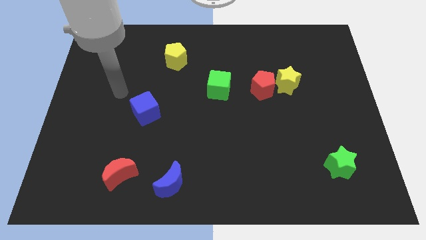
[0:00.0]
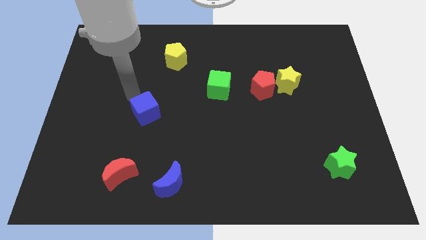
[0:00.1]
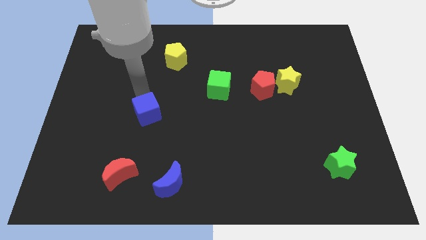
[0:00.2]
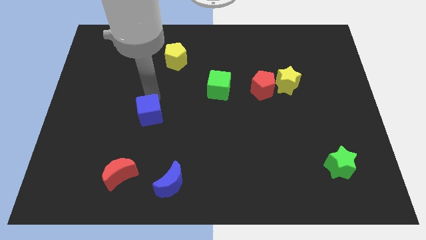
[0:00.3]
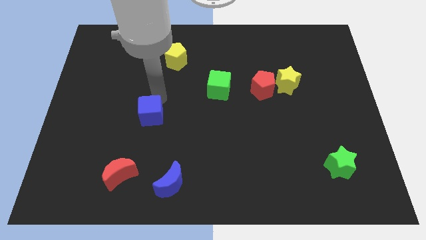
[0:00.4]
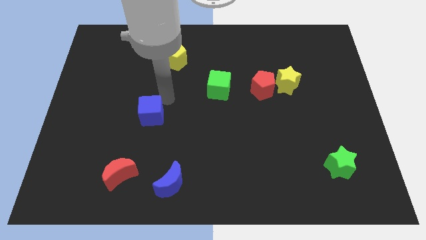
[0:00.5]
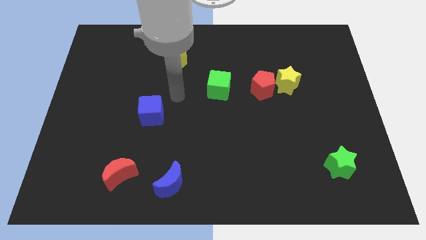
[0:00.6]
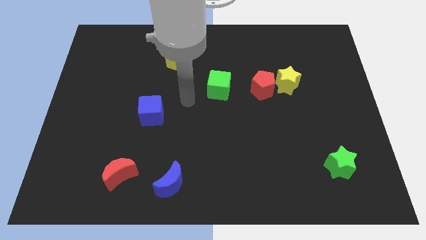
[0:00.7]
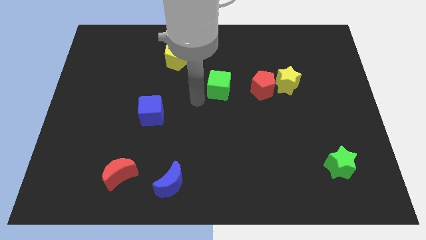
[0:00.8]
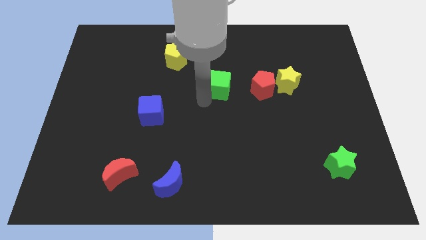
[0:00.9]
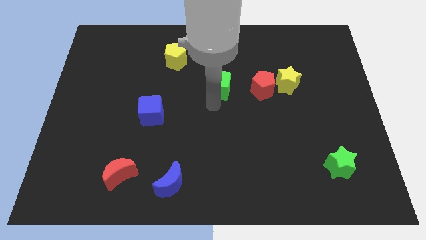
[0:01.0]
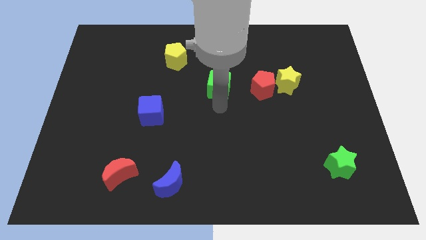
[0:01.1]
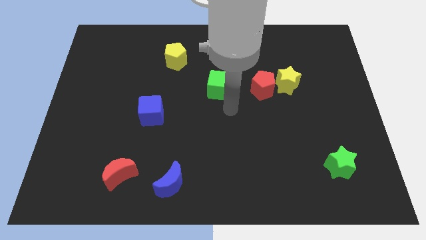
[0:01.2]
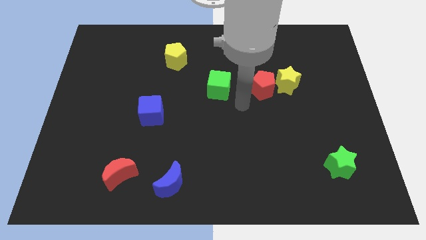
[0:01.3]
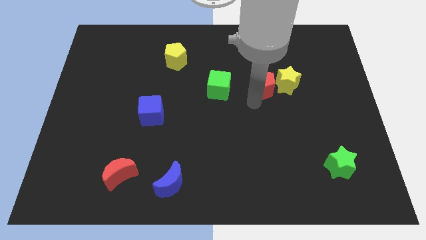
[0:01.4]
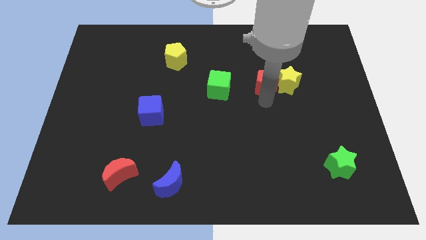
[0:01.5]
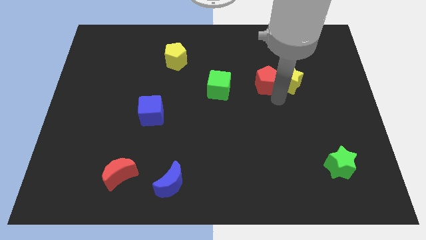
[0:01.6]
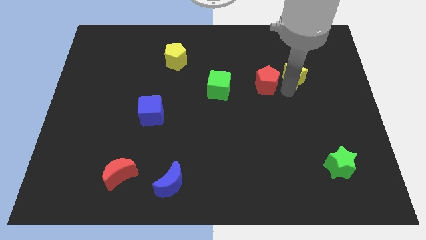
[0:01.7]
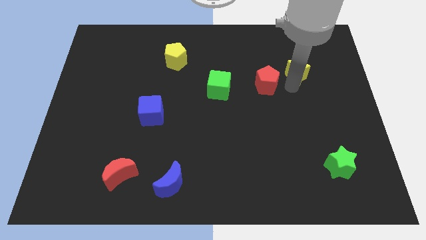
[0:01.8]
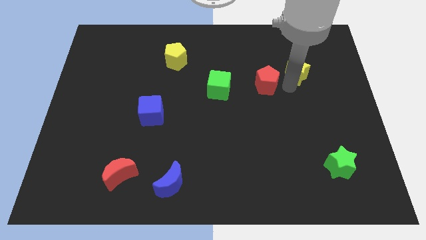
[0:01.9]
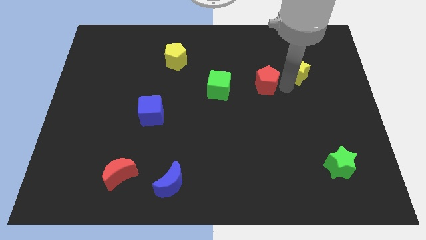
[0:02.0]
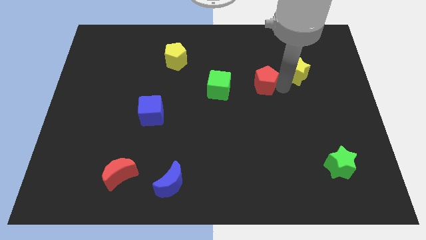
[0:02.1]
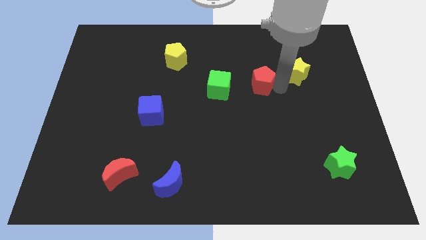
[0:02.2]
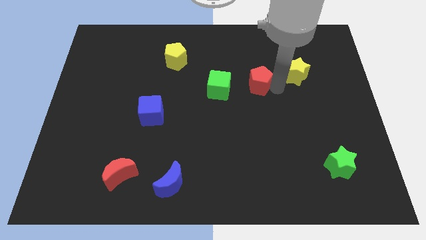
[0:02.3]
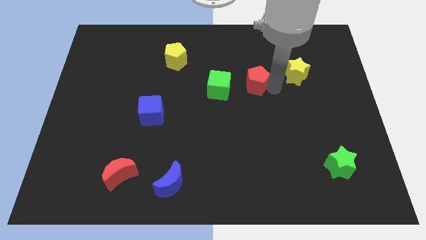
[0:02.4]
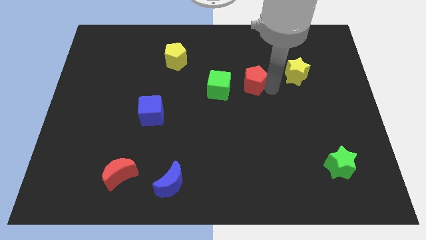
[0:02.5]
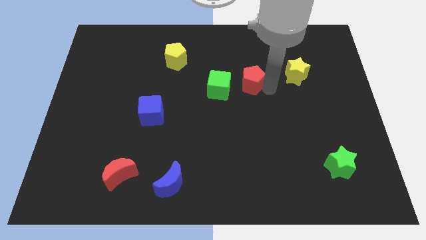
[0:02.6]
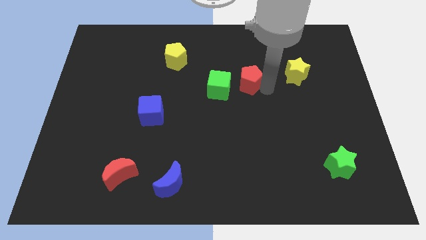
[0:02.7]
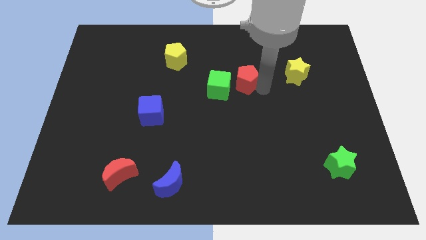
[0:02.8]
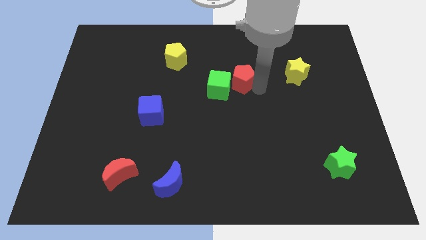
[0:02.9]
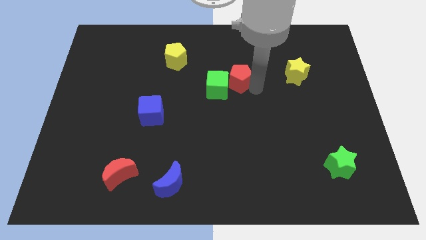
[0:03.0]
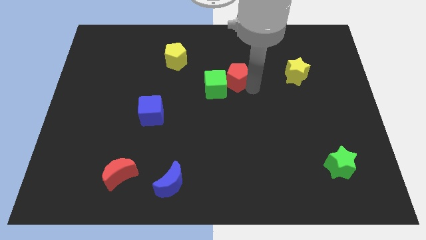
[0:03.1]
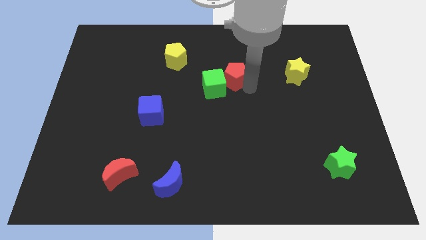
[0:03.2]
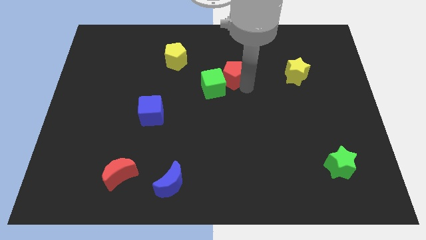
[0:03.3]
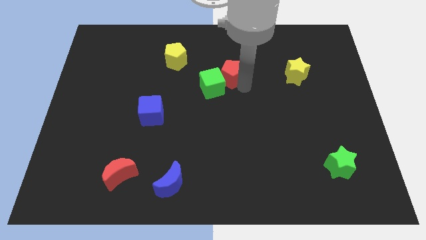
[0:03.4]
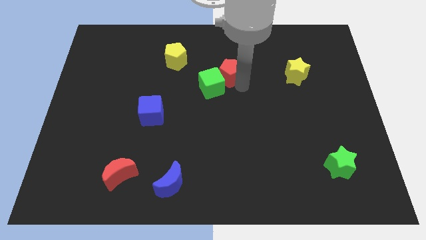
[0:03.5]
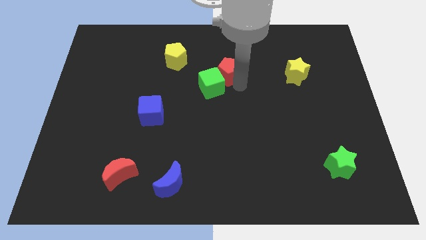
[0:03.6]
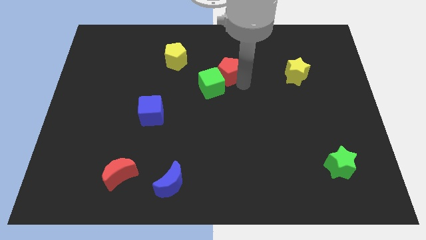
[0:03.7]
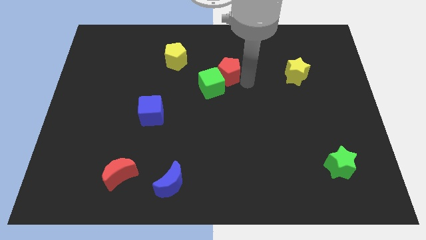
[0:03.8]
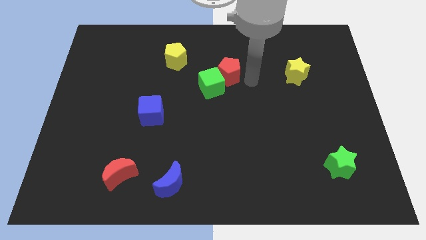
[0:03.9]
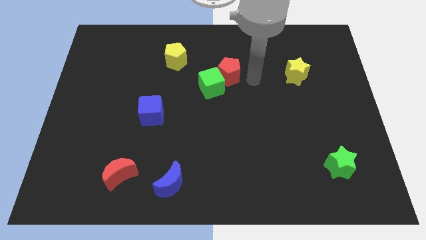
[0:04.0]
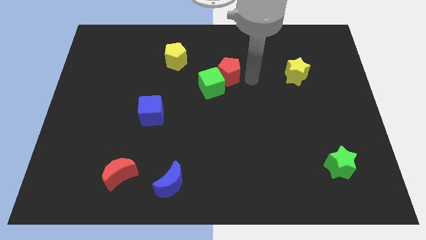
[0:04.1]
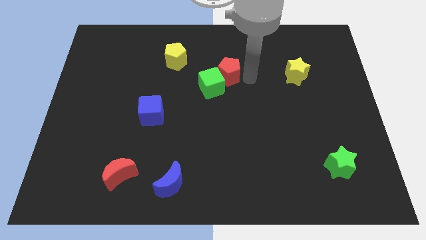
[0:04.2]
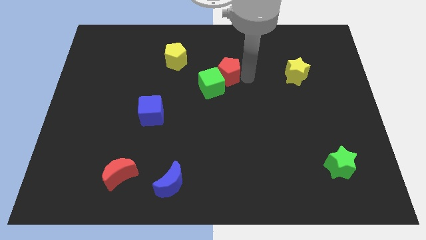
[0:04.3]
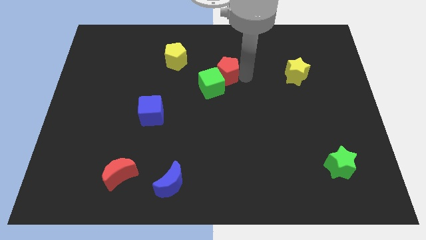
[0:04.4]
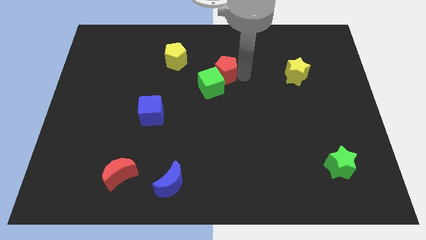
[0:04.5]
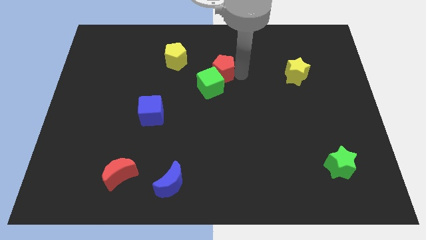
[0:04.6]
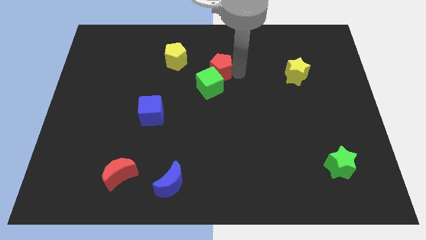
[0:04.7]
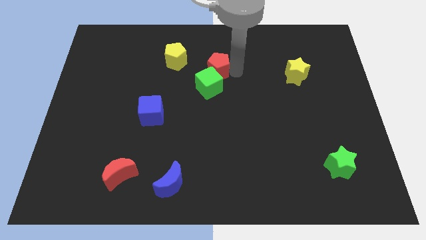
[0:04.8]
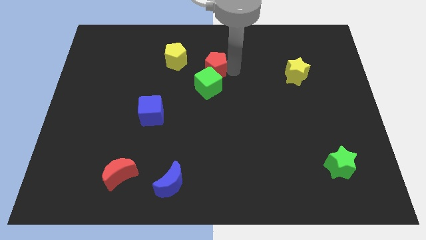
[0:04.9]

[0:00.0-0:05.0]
move the red pentagon to the bottom right of the yellow pentagon

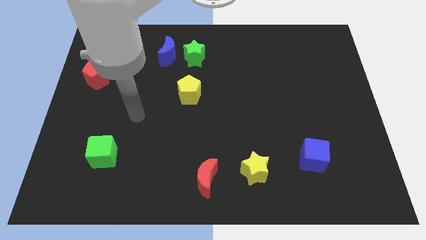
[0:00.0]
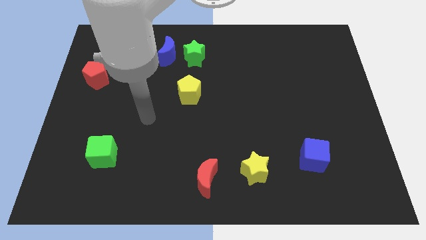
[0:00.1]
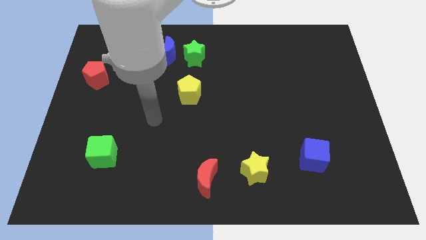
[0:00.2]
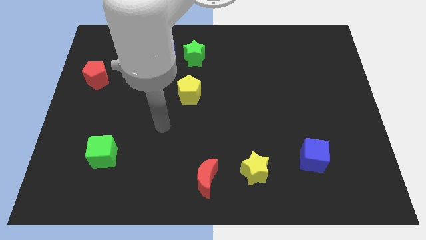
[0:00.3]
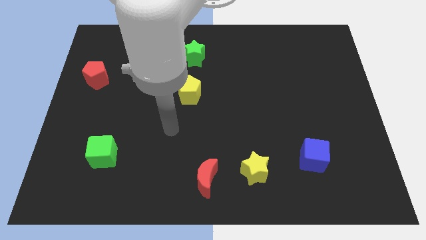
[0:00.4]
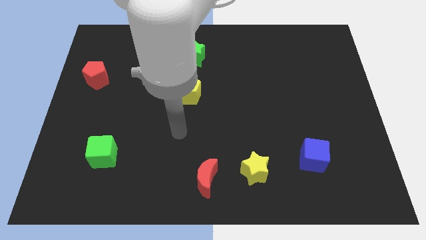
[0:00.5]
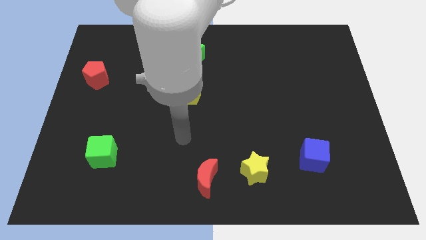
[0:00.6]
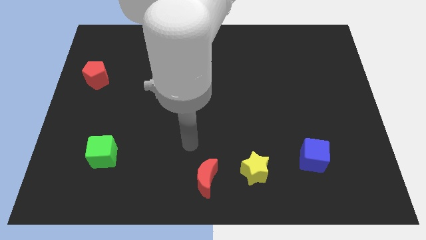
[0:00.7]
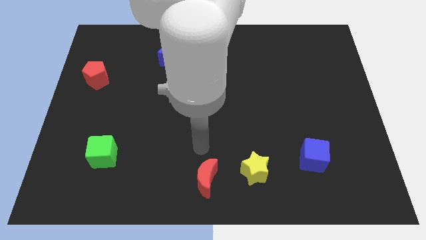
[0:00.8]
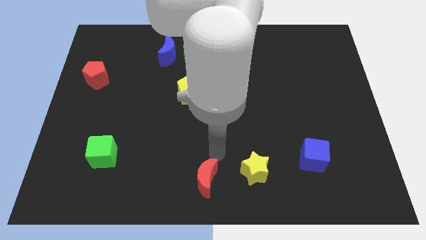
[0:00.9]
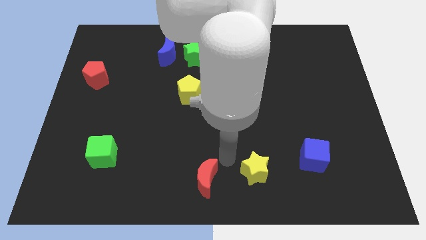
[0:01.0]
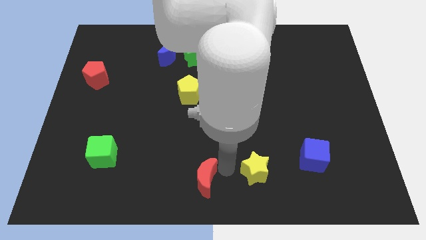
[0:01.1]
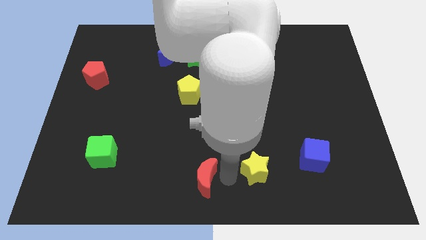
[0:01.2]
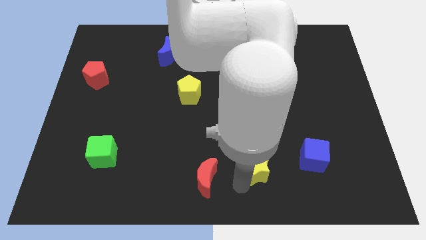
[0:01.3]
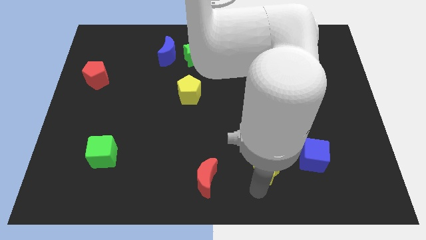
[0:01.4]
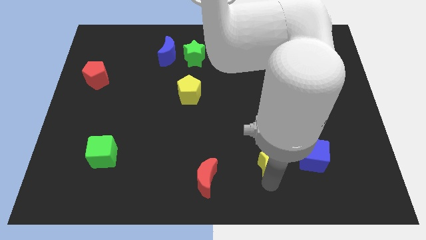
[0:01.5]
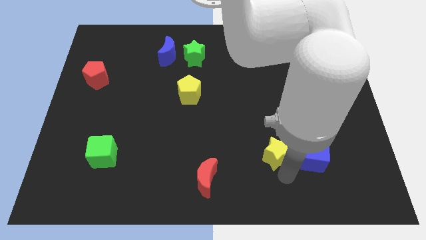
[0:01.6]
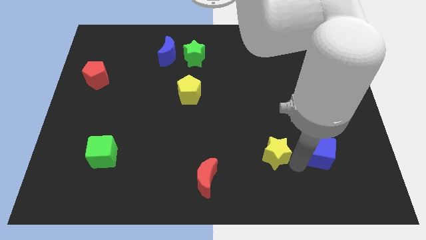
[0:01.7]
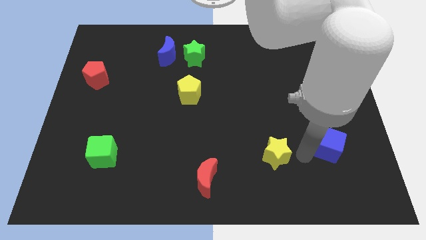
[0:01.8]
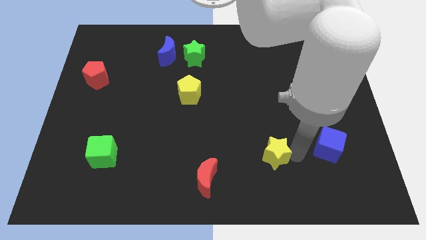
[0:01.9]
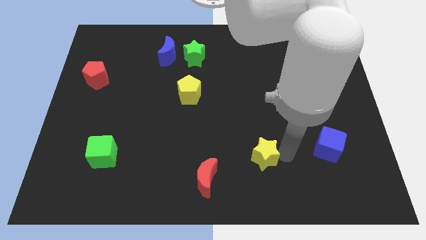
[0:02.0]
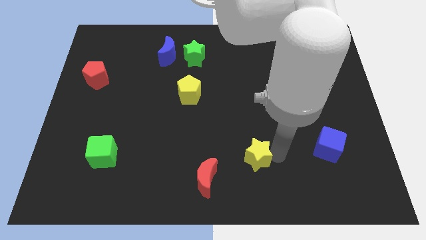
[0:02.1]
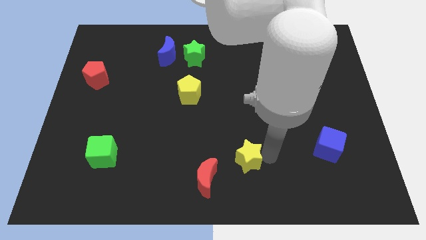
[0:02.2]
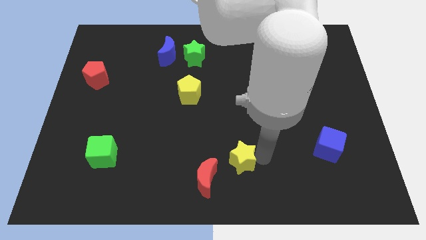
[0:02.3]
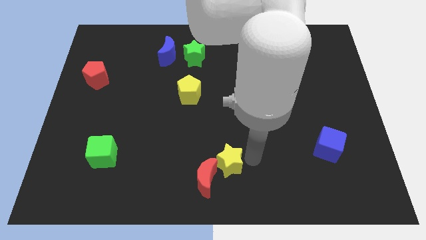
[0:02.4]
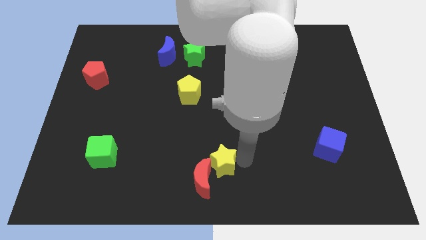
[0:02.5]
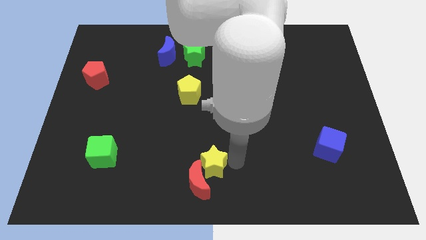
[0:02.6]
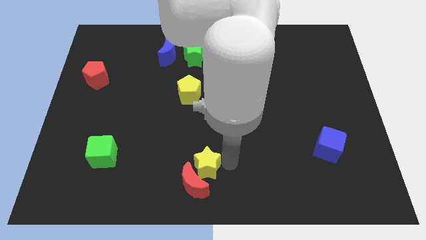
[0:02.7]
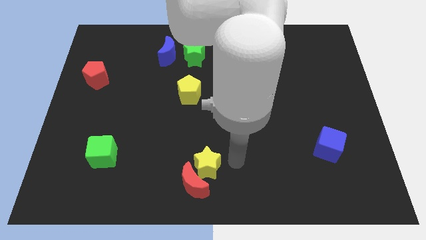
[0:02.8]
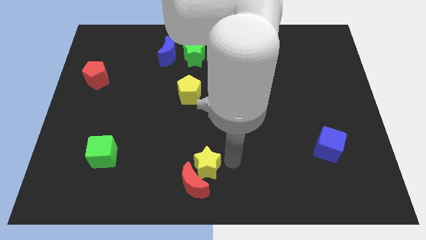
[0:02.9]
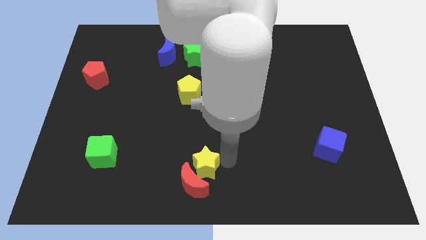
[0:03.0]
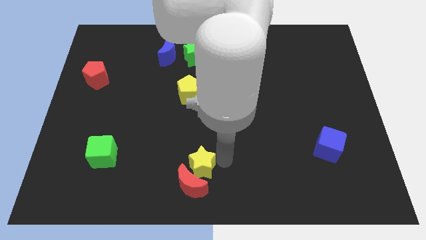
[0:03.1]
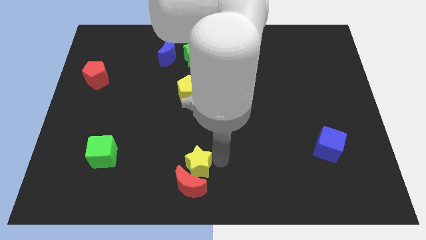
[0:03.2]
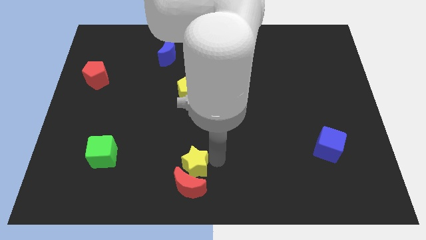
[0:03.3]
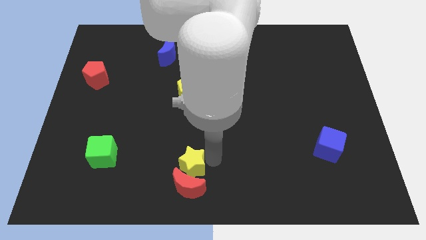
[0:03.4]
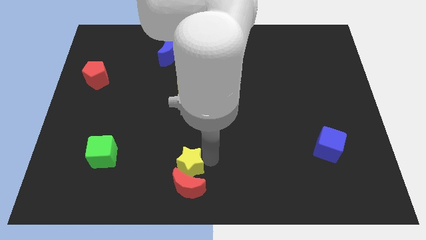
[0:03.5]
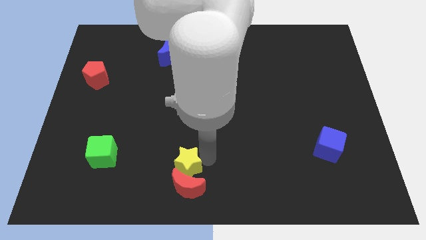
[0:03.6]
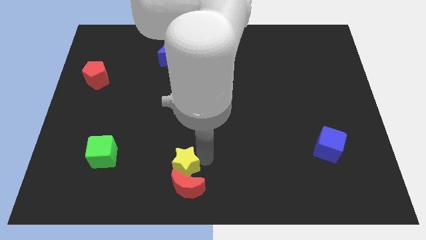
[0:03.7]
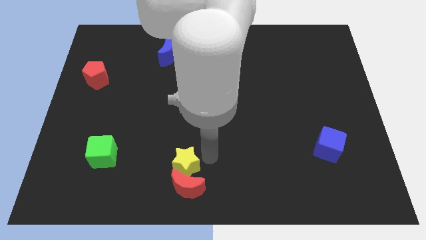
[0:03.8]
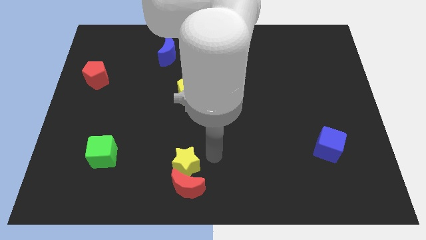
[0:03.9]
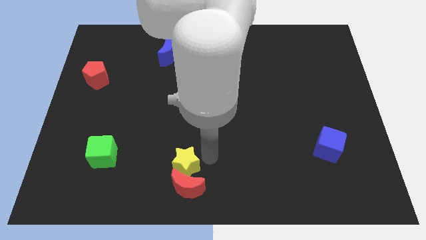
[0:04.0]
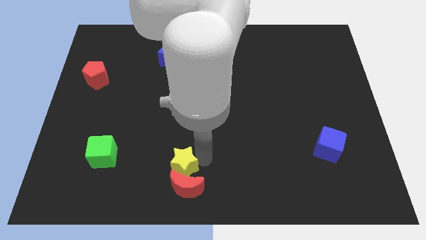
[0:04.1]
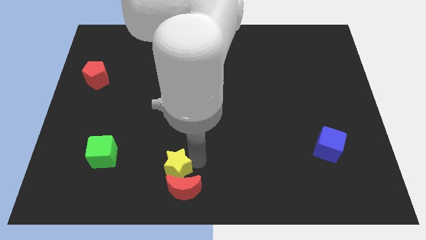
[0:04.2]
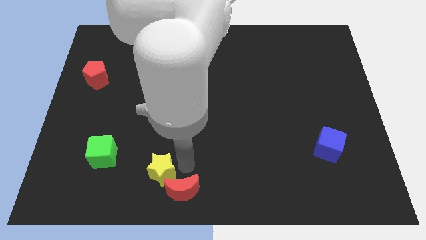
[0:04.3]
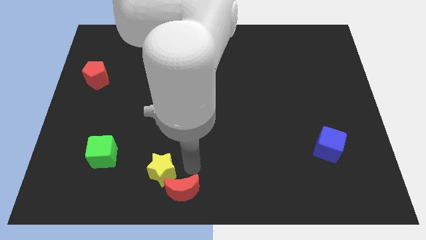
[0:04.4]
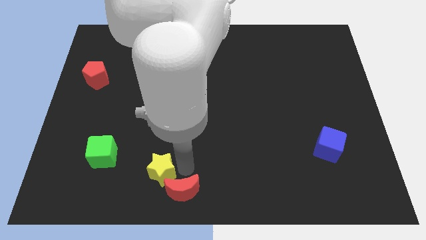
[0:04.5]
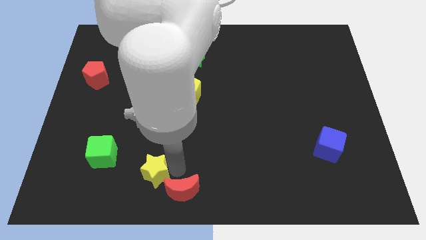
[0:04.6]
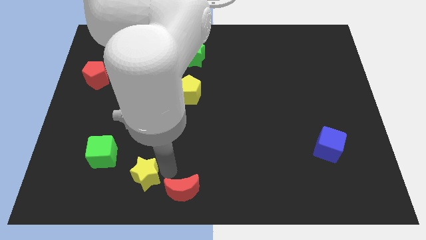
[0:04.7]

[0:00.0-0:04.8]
slide the yellow star diagonally down and to the right of the green cube
